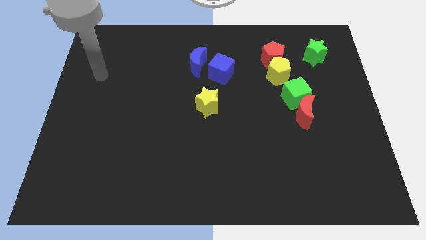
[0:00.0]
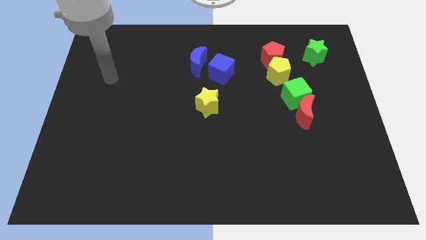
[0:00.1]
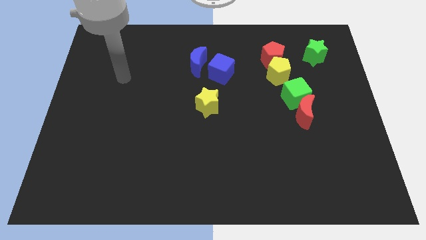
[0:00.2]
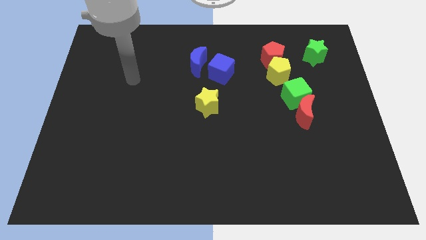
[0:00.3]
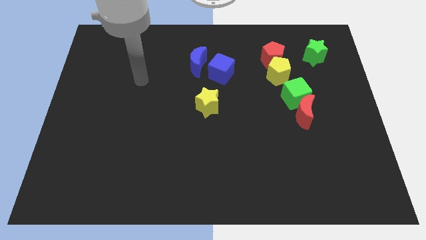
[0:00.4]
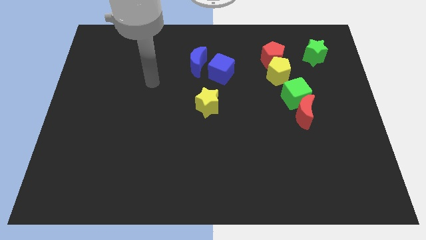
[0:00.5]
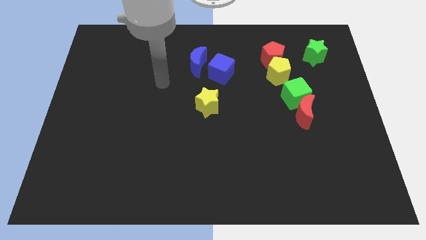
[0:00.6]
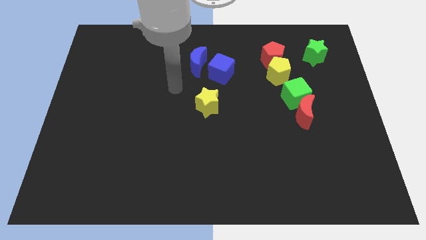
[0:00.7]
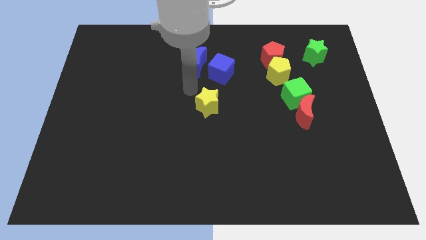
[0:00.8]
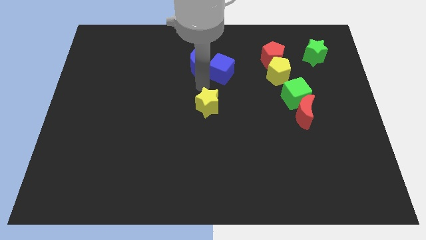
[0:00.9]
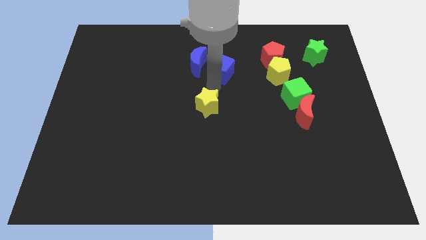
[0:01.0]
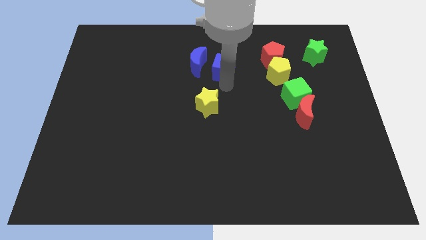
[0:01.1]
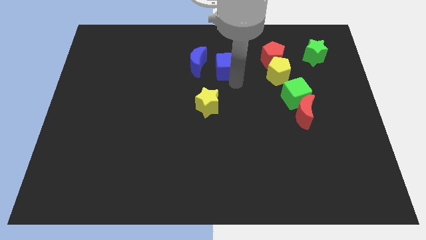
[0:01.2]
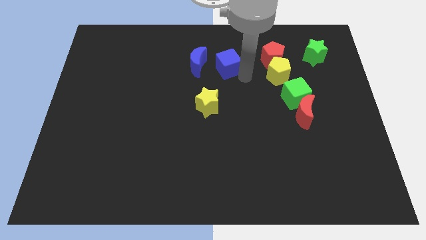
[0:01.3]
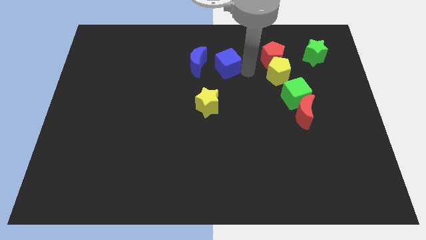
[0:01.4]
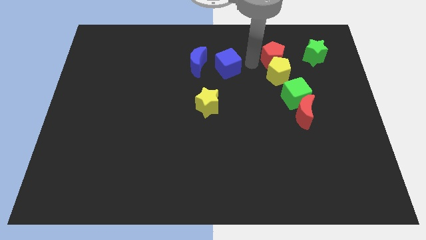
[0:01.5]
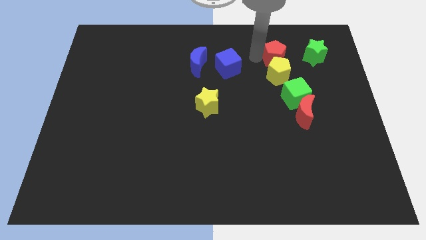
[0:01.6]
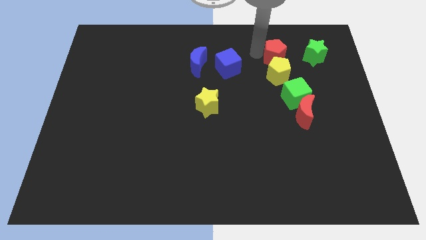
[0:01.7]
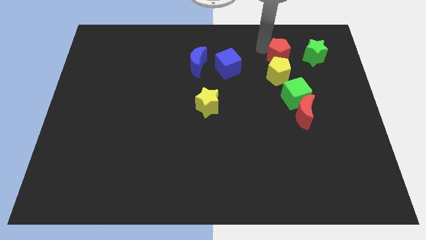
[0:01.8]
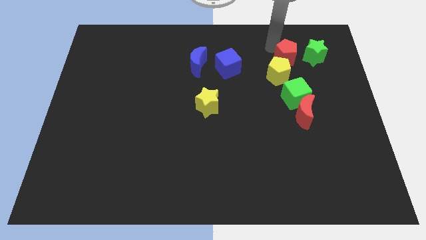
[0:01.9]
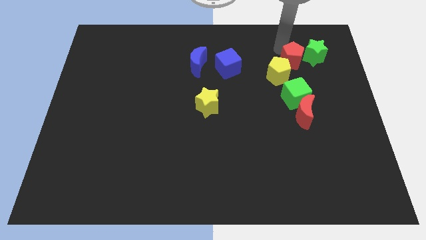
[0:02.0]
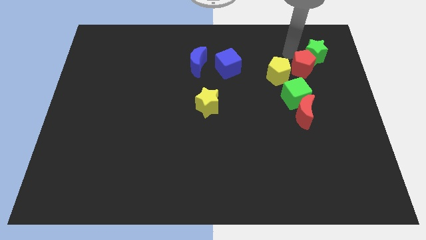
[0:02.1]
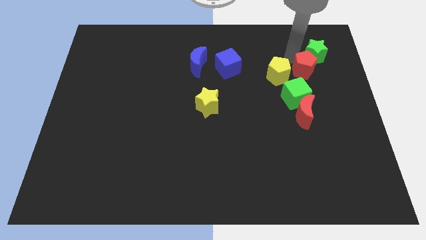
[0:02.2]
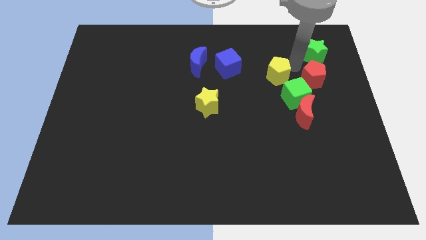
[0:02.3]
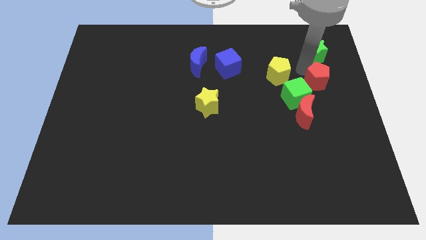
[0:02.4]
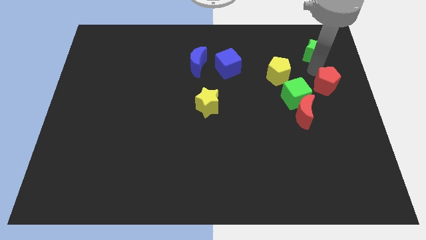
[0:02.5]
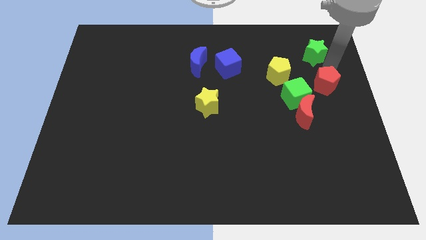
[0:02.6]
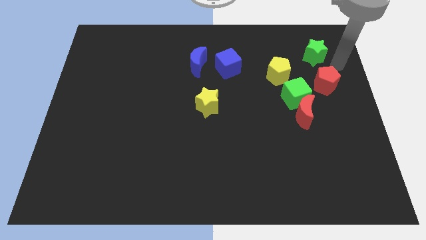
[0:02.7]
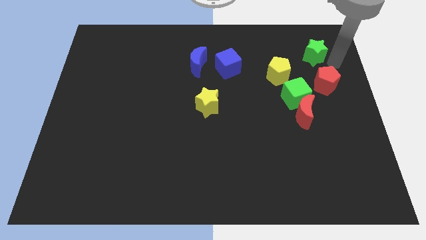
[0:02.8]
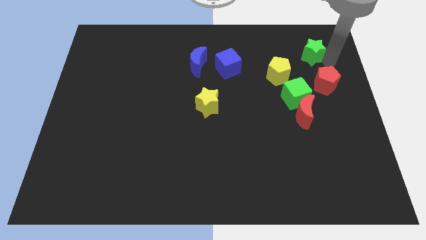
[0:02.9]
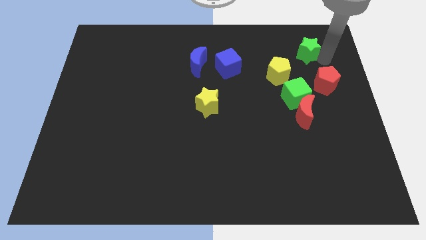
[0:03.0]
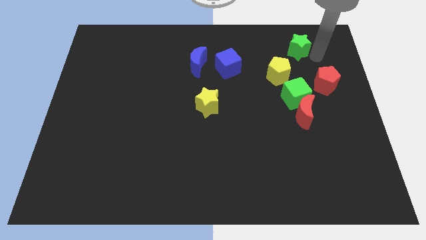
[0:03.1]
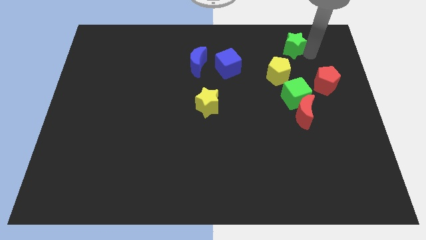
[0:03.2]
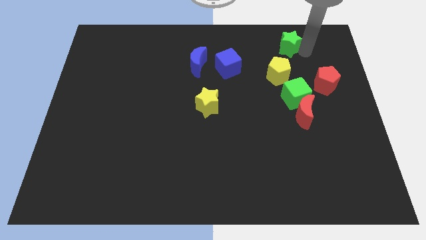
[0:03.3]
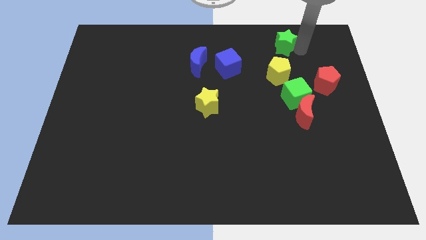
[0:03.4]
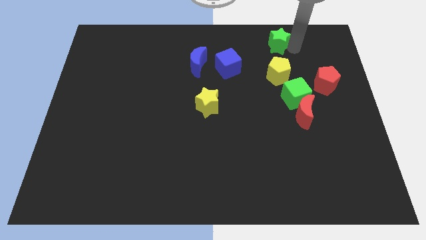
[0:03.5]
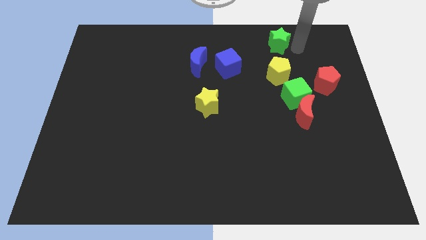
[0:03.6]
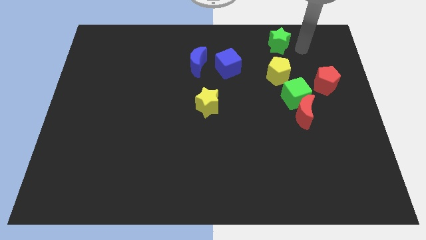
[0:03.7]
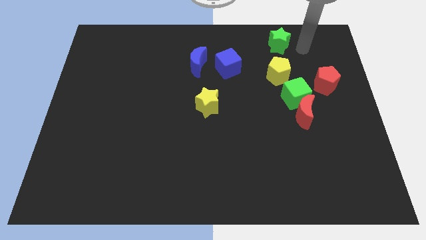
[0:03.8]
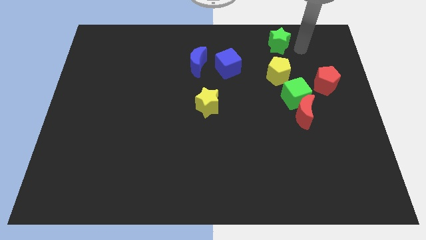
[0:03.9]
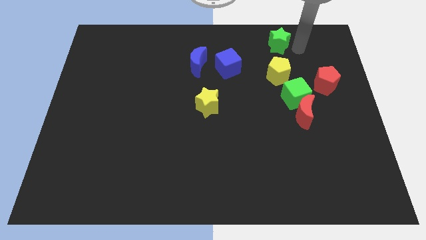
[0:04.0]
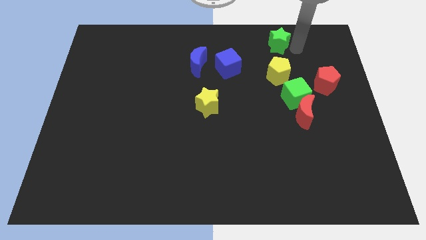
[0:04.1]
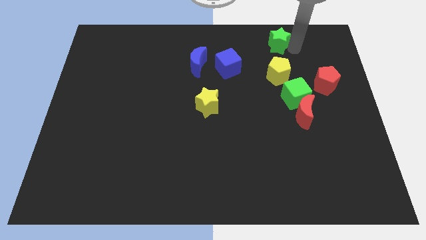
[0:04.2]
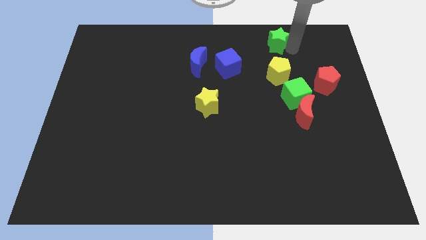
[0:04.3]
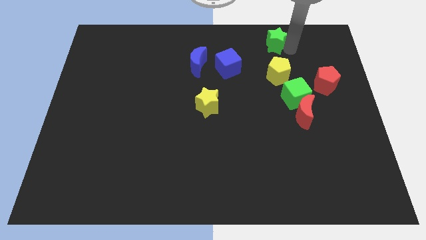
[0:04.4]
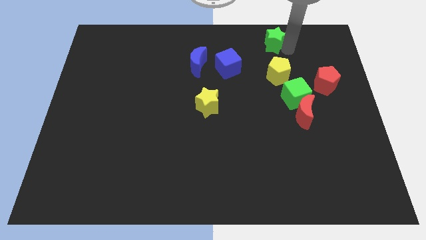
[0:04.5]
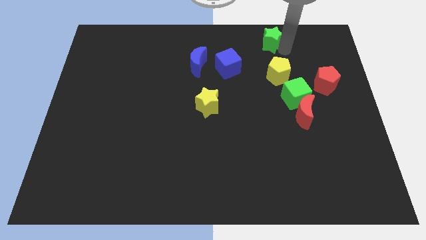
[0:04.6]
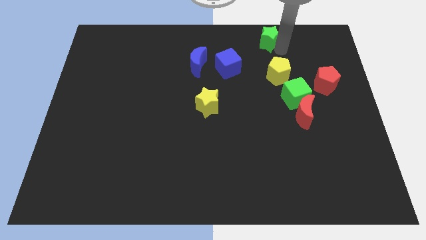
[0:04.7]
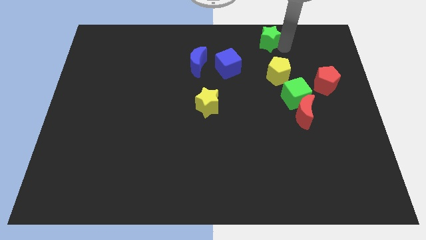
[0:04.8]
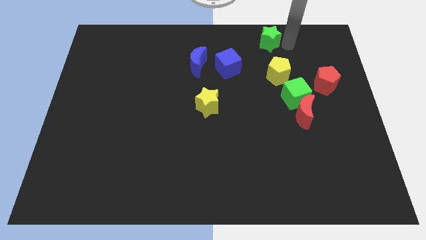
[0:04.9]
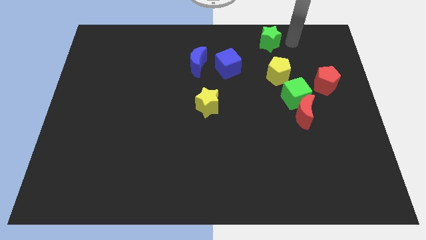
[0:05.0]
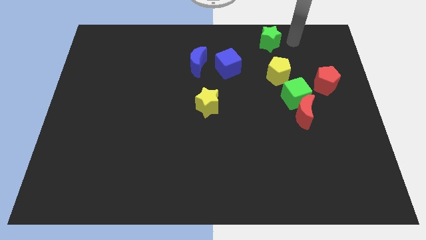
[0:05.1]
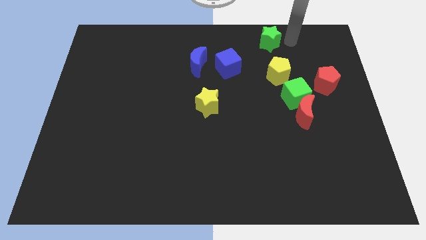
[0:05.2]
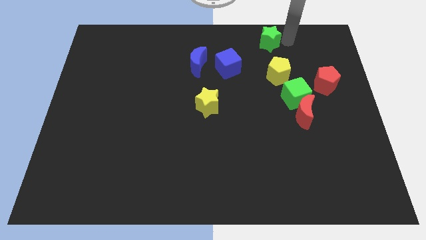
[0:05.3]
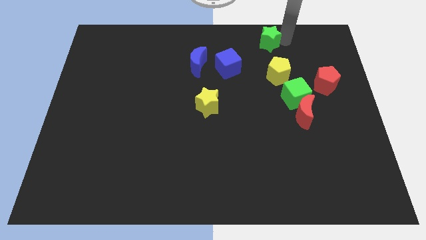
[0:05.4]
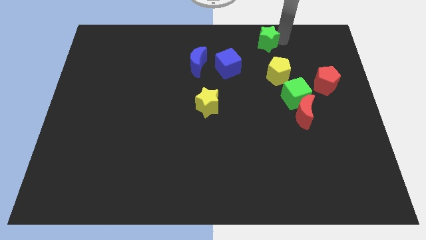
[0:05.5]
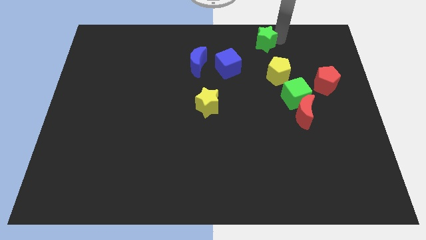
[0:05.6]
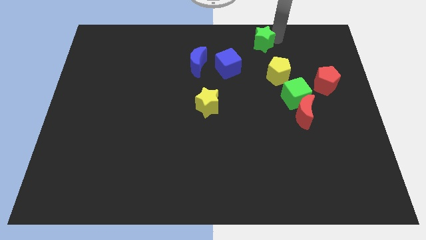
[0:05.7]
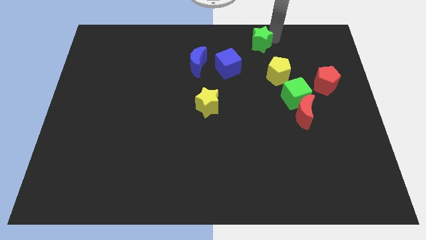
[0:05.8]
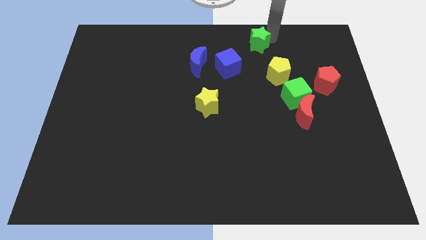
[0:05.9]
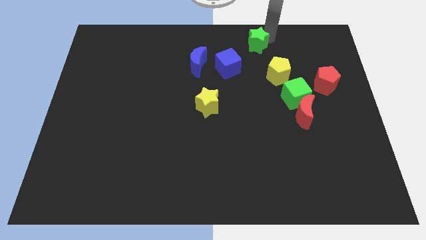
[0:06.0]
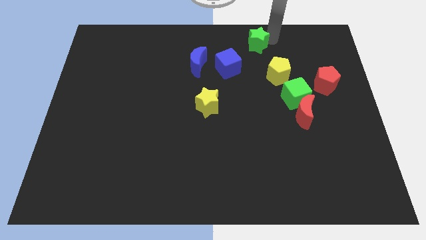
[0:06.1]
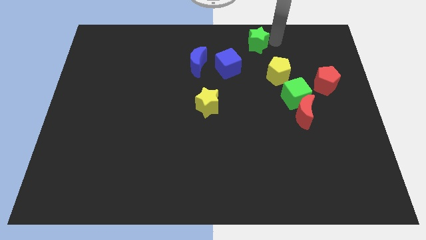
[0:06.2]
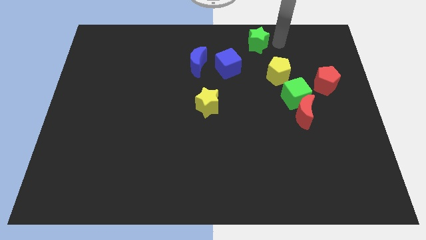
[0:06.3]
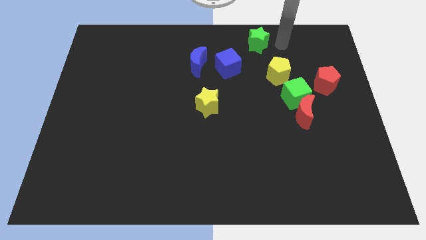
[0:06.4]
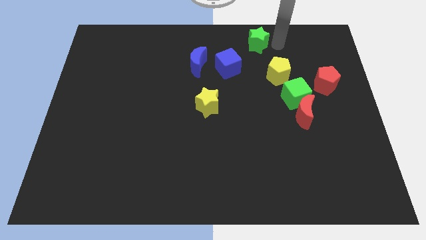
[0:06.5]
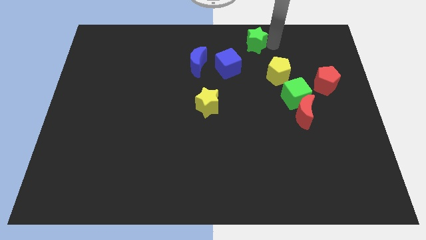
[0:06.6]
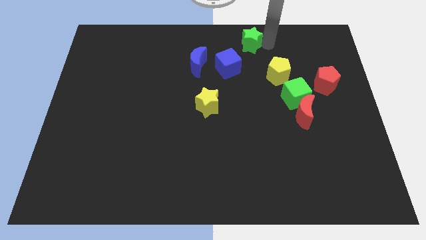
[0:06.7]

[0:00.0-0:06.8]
put the green star to the top side

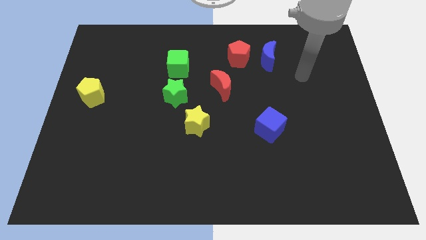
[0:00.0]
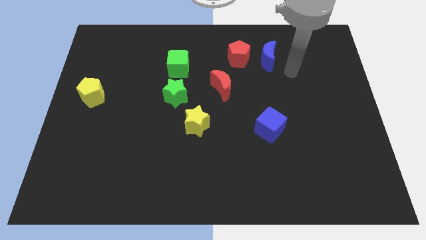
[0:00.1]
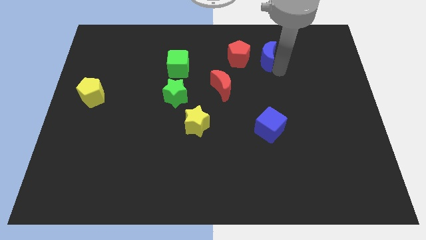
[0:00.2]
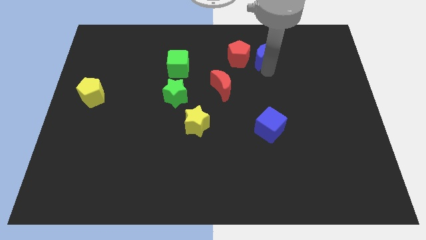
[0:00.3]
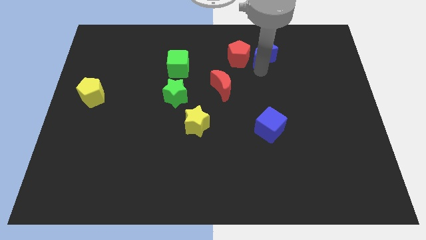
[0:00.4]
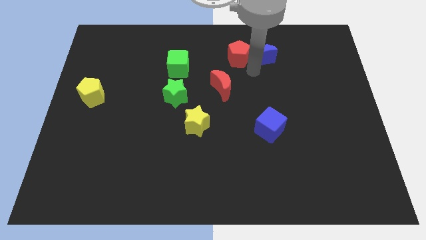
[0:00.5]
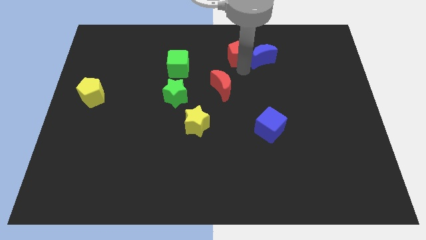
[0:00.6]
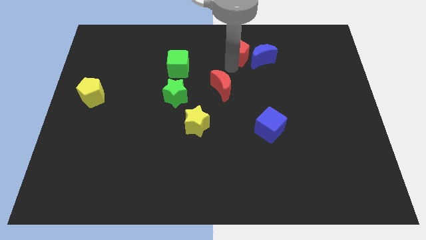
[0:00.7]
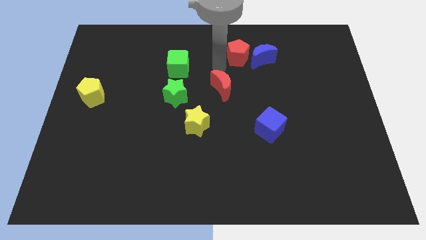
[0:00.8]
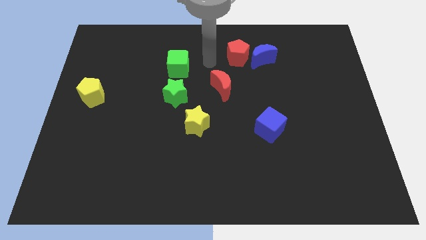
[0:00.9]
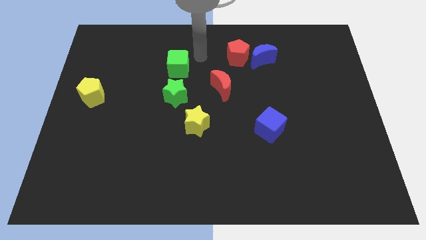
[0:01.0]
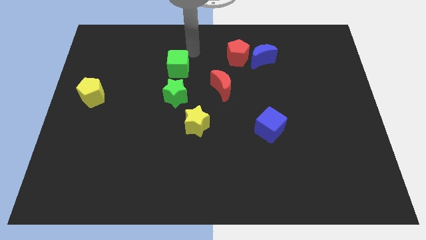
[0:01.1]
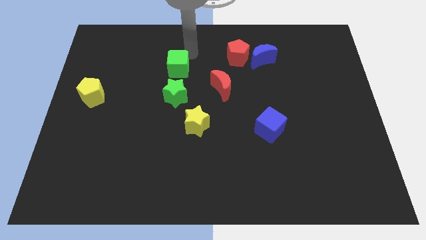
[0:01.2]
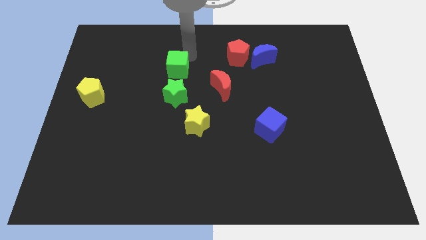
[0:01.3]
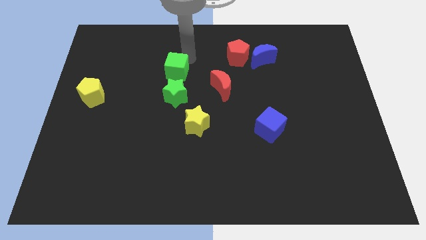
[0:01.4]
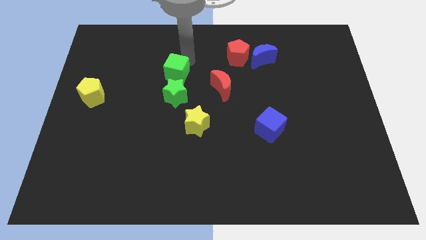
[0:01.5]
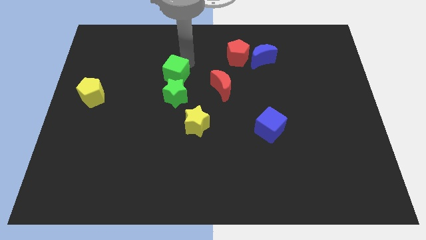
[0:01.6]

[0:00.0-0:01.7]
put the green cube to the center
